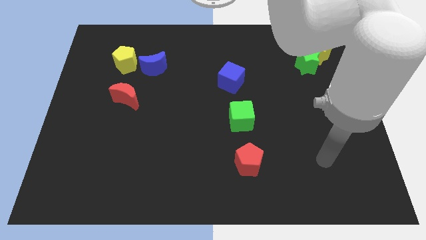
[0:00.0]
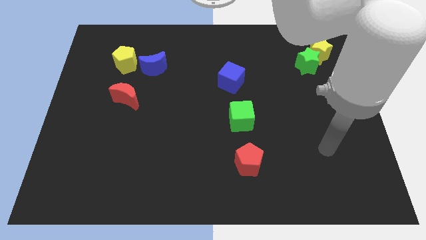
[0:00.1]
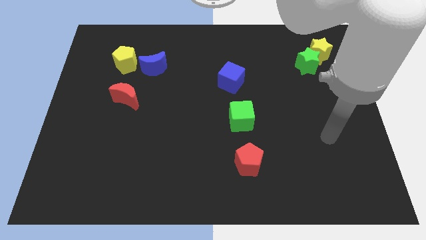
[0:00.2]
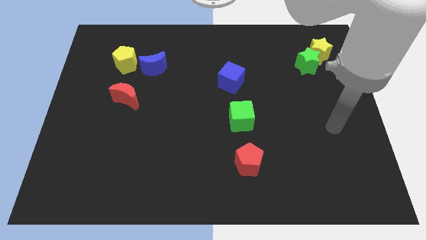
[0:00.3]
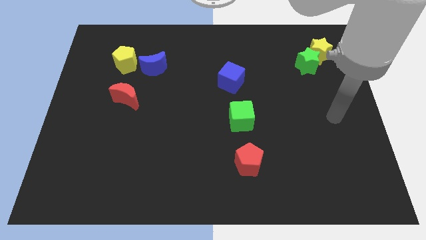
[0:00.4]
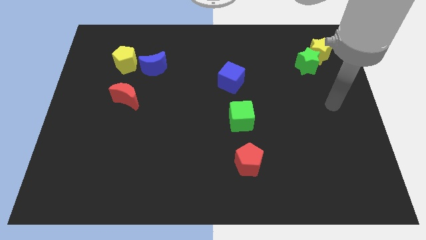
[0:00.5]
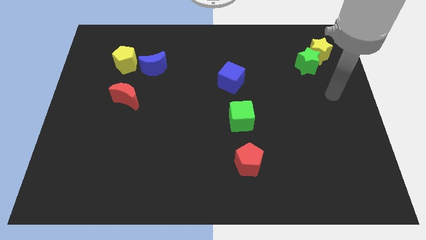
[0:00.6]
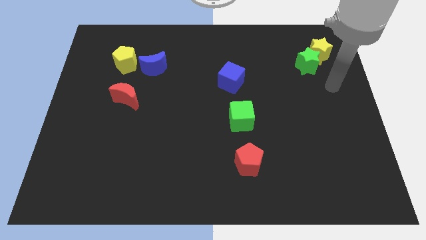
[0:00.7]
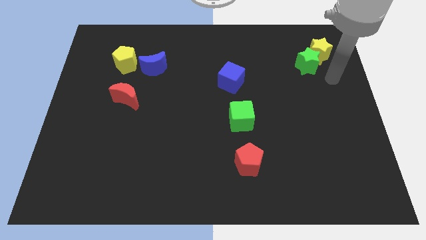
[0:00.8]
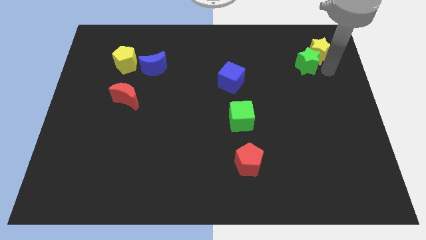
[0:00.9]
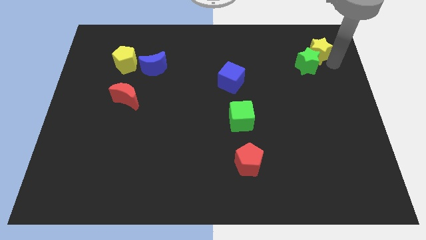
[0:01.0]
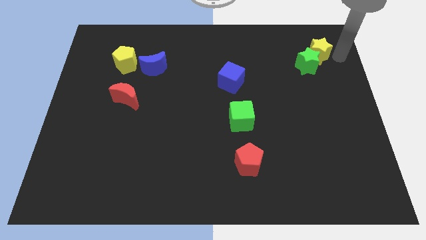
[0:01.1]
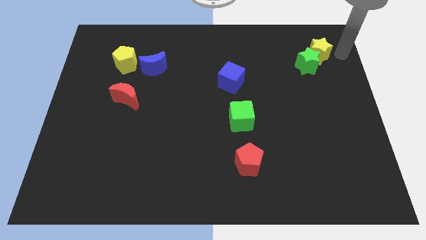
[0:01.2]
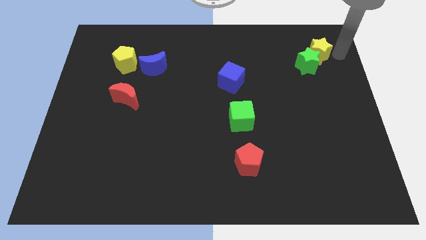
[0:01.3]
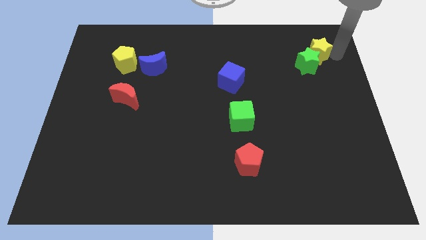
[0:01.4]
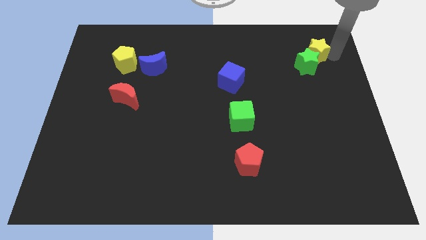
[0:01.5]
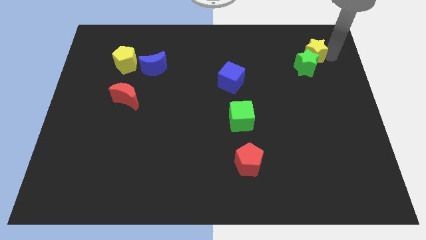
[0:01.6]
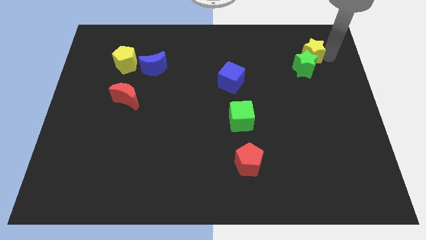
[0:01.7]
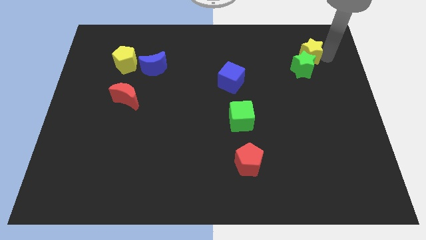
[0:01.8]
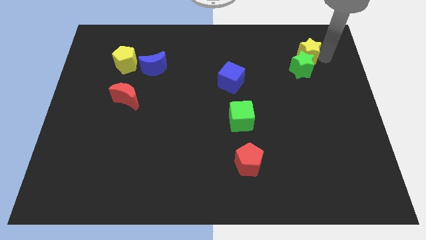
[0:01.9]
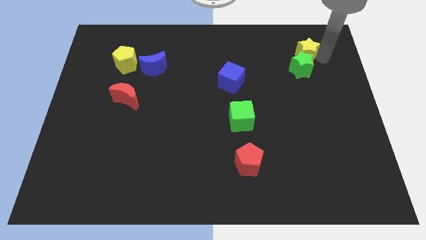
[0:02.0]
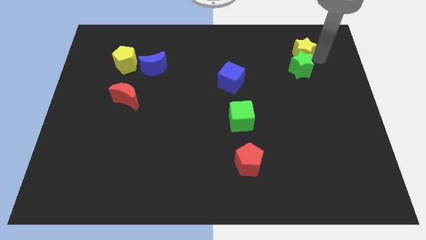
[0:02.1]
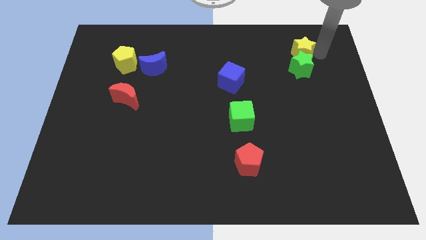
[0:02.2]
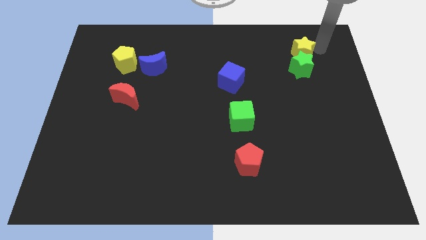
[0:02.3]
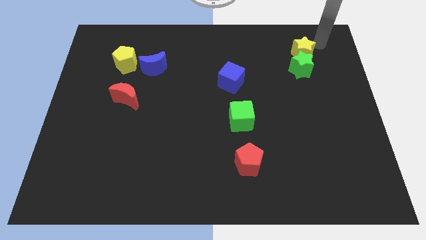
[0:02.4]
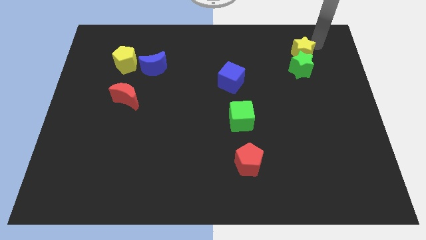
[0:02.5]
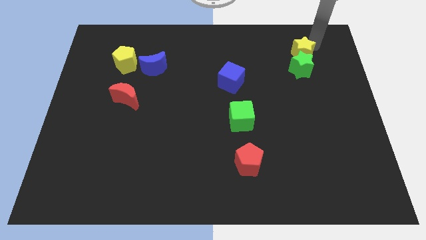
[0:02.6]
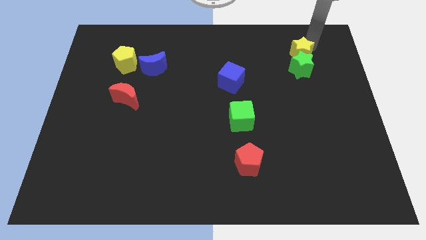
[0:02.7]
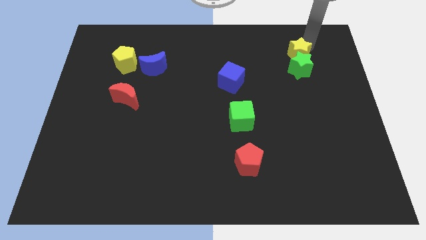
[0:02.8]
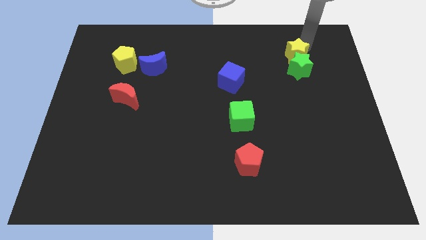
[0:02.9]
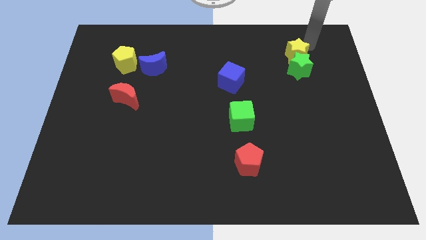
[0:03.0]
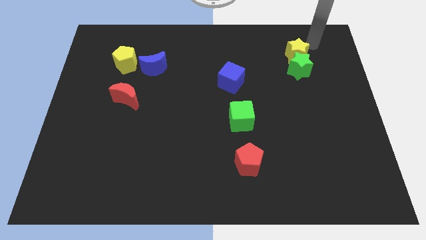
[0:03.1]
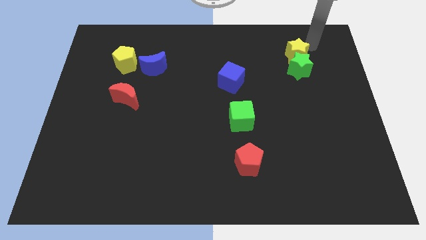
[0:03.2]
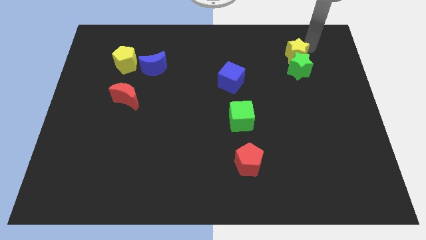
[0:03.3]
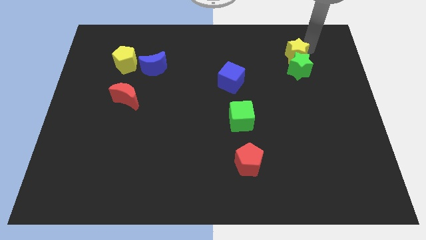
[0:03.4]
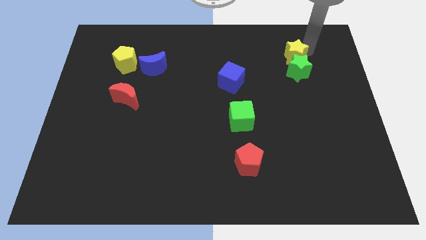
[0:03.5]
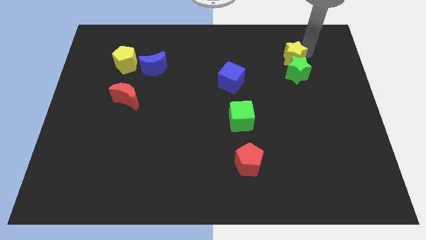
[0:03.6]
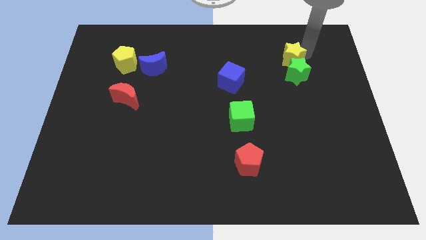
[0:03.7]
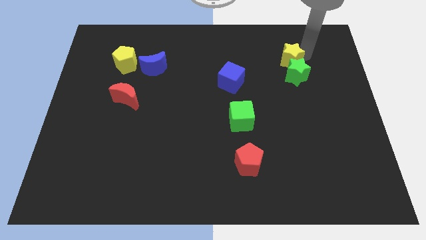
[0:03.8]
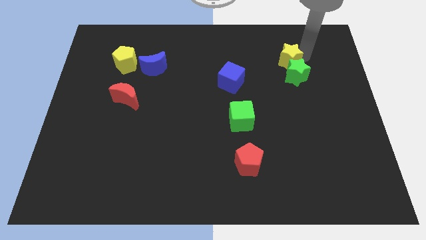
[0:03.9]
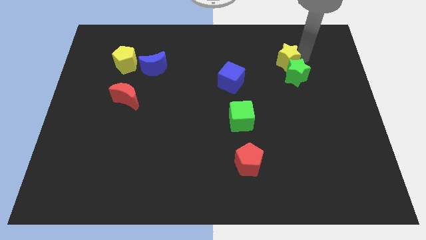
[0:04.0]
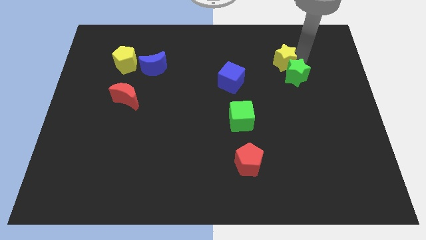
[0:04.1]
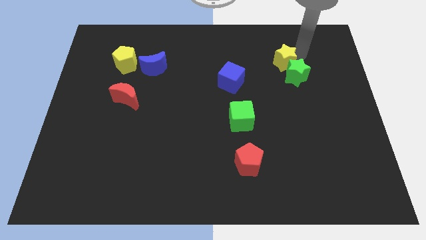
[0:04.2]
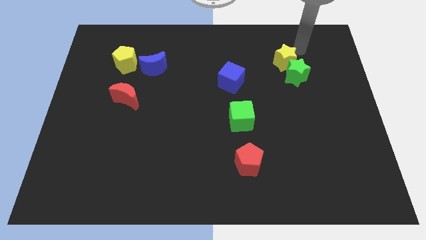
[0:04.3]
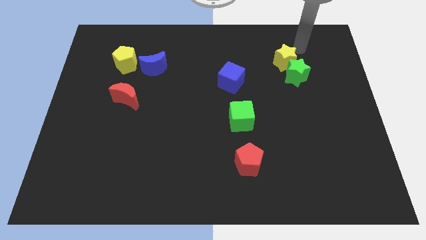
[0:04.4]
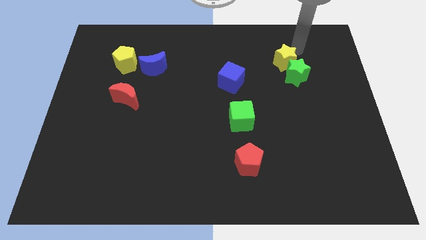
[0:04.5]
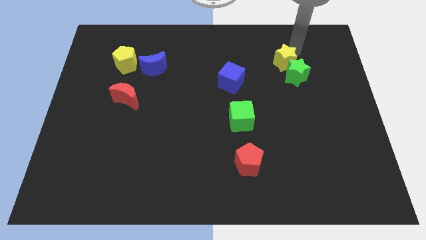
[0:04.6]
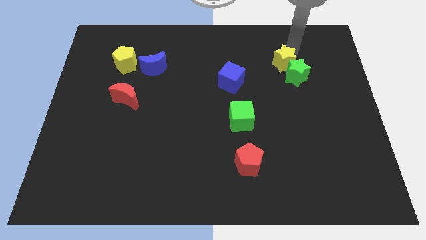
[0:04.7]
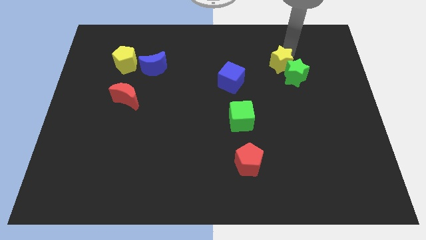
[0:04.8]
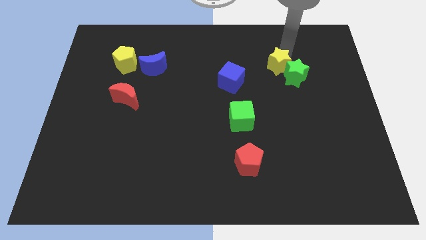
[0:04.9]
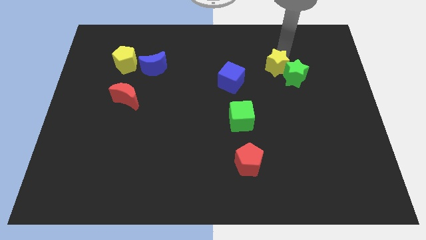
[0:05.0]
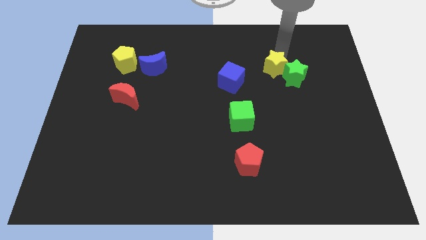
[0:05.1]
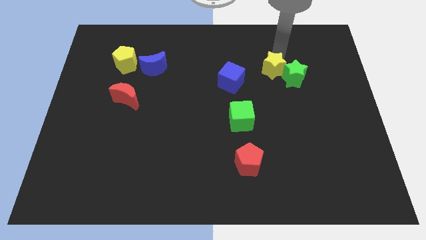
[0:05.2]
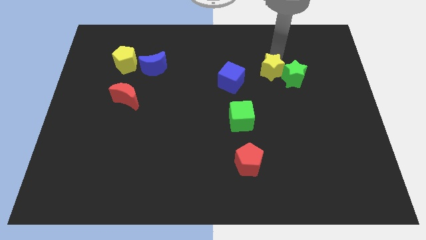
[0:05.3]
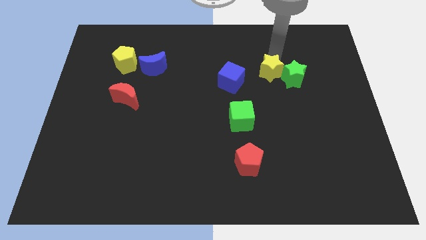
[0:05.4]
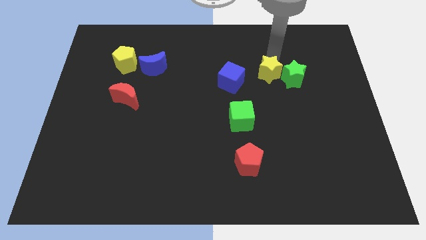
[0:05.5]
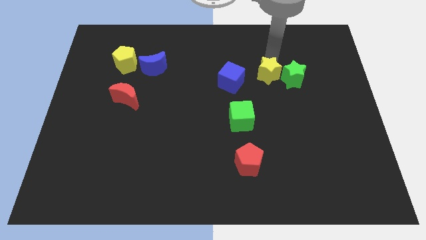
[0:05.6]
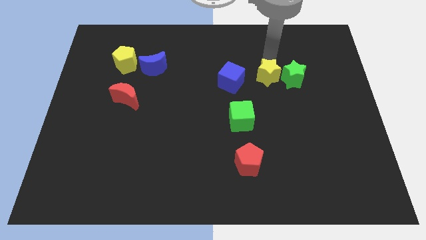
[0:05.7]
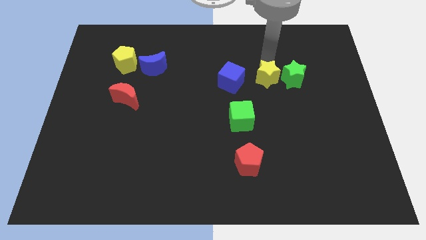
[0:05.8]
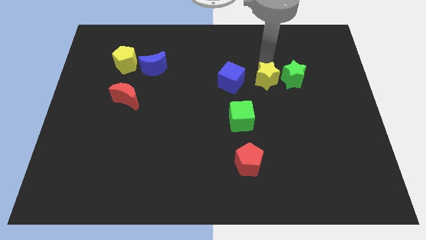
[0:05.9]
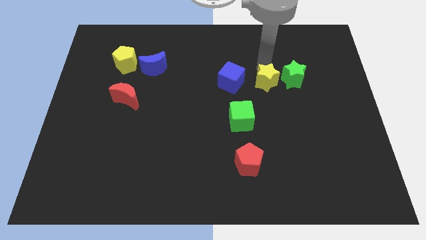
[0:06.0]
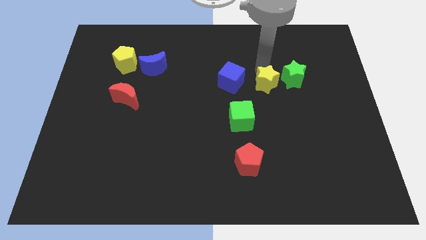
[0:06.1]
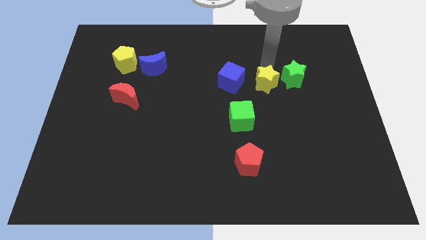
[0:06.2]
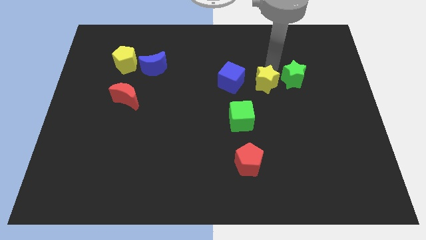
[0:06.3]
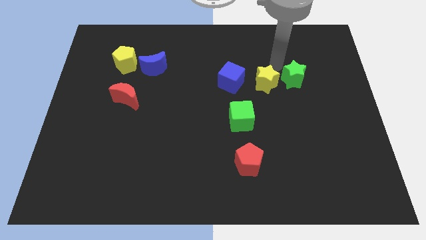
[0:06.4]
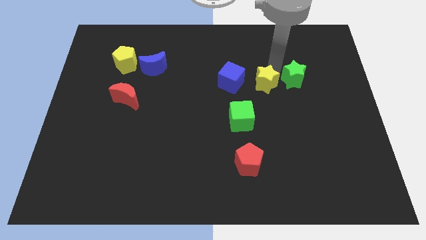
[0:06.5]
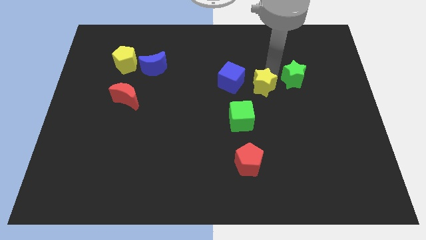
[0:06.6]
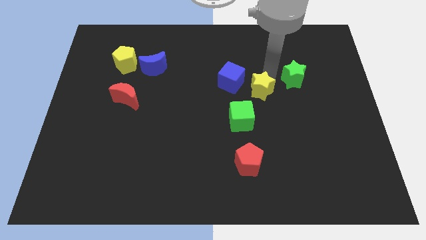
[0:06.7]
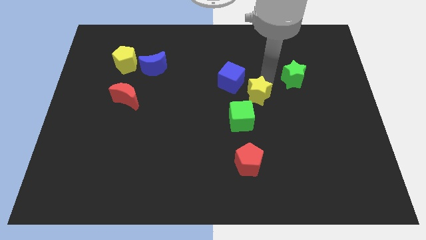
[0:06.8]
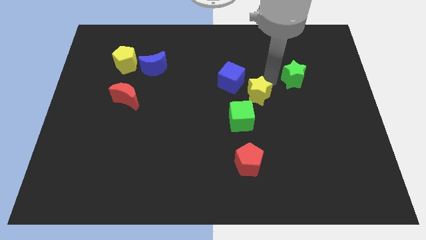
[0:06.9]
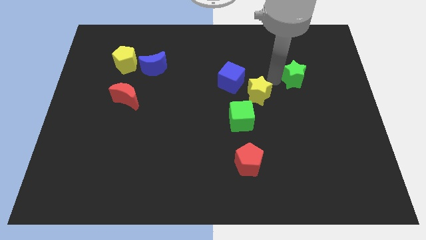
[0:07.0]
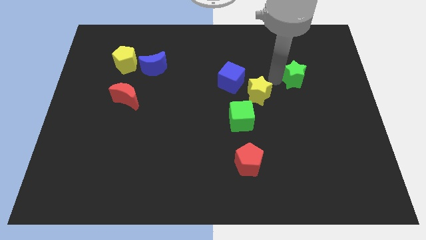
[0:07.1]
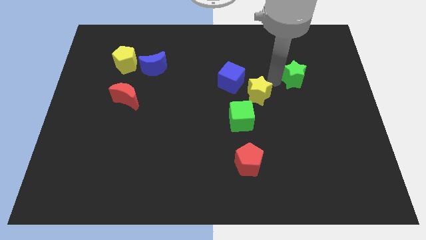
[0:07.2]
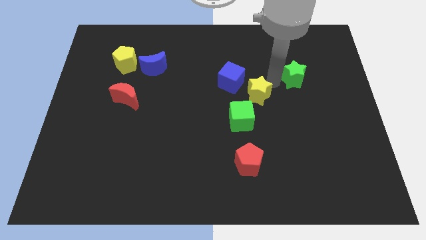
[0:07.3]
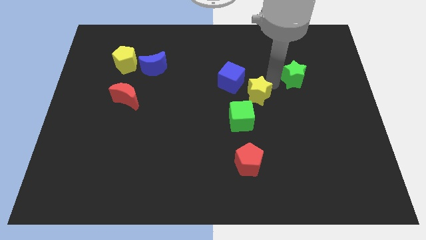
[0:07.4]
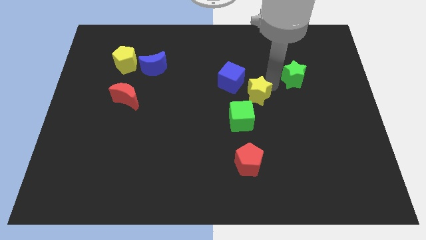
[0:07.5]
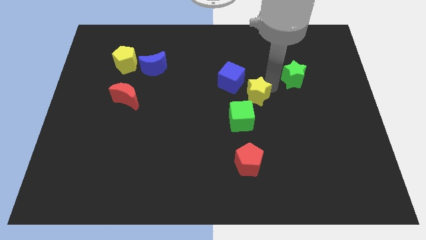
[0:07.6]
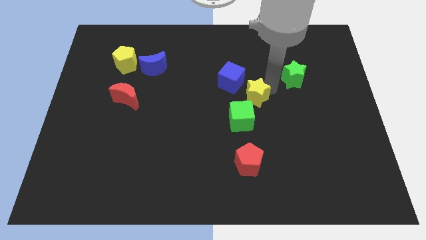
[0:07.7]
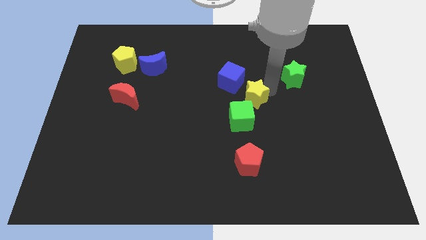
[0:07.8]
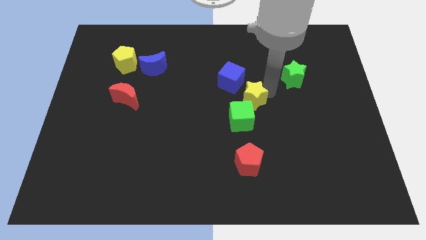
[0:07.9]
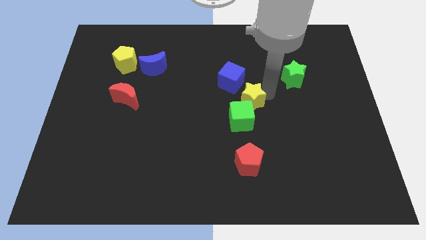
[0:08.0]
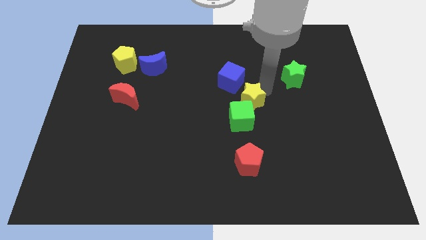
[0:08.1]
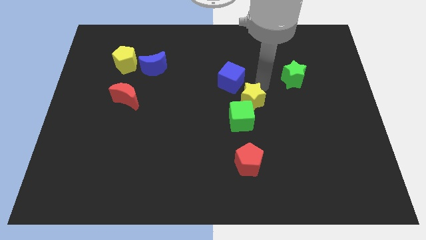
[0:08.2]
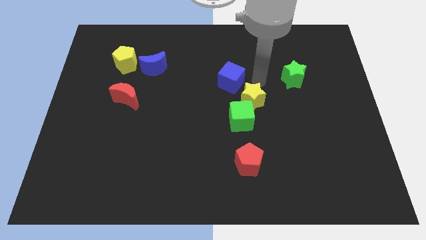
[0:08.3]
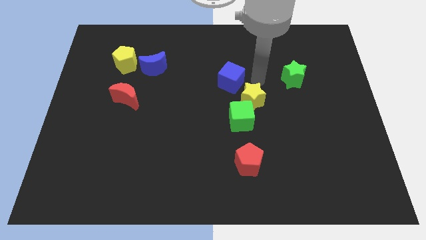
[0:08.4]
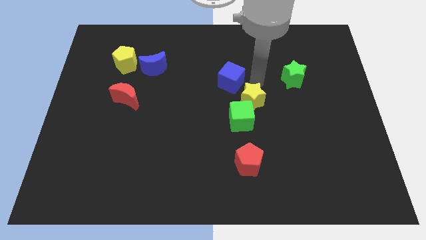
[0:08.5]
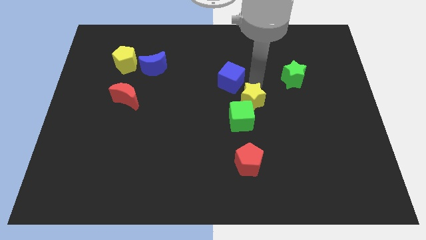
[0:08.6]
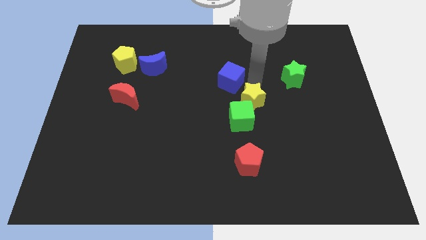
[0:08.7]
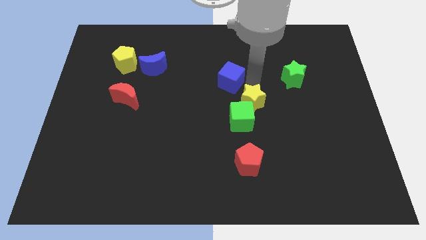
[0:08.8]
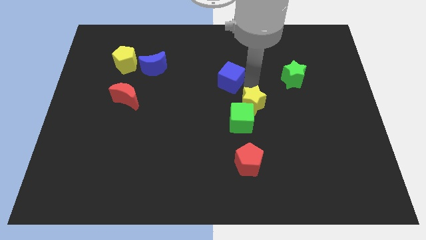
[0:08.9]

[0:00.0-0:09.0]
move the yellow star to the top of the red pentagon
